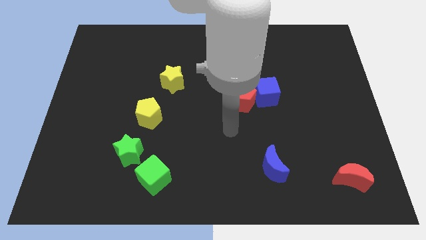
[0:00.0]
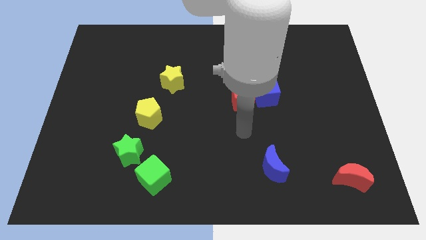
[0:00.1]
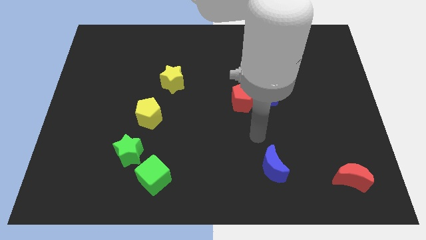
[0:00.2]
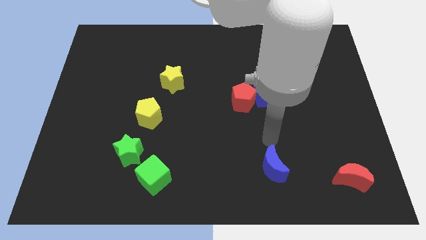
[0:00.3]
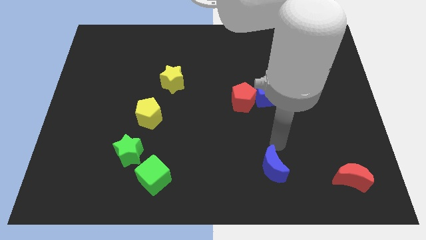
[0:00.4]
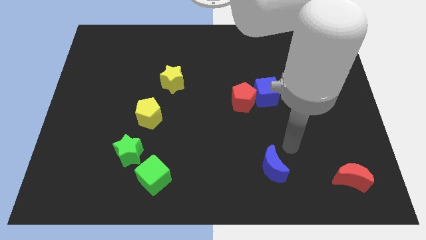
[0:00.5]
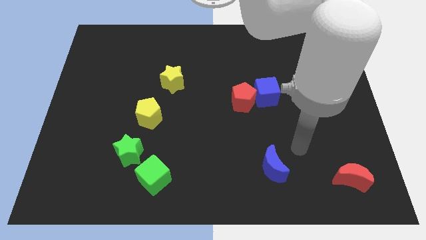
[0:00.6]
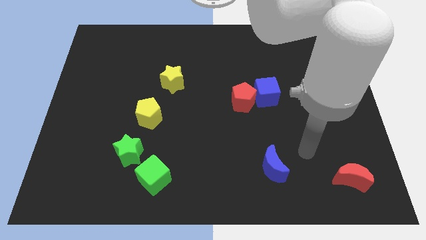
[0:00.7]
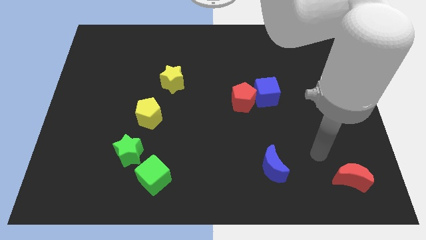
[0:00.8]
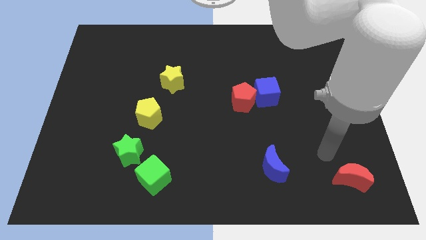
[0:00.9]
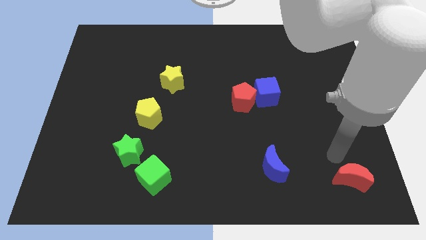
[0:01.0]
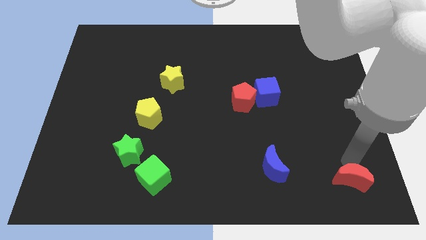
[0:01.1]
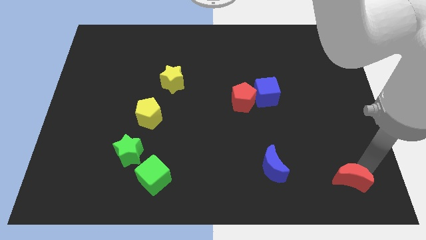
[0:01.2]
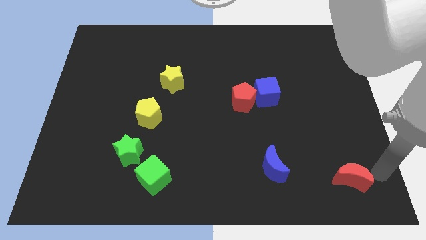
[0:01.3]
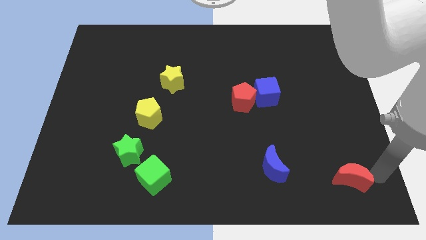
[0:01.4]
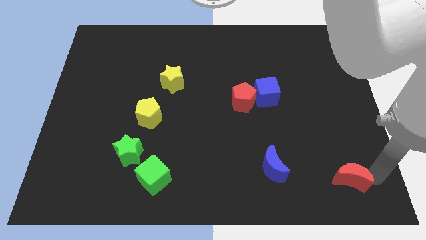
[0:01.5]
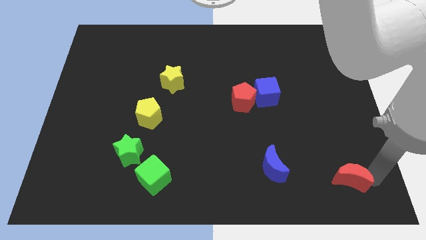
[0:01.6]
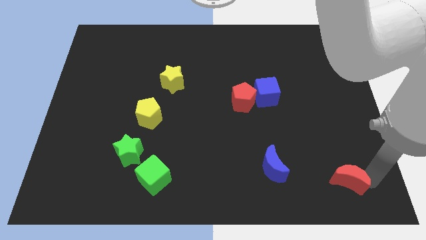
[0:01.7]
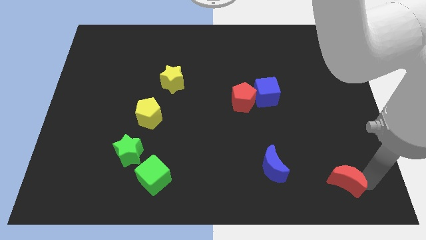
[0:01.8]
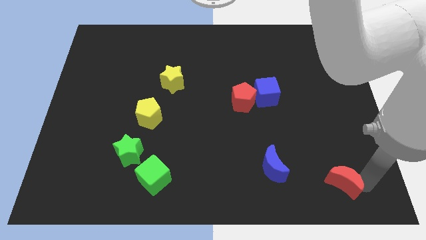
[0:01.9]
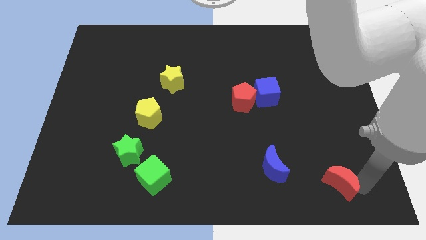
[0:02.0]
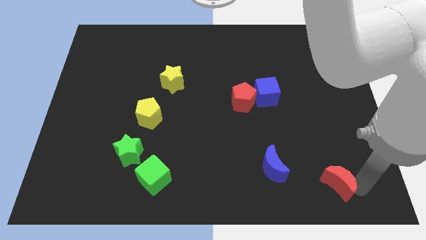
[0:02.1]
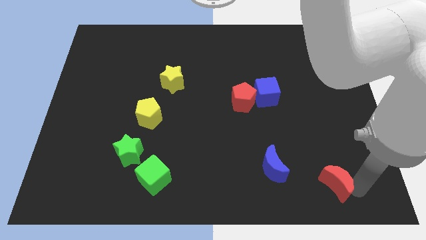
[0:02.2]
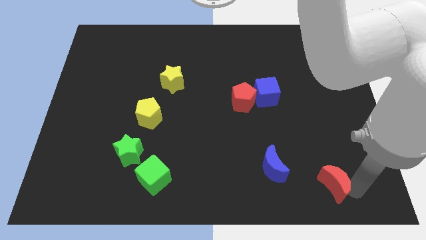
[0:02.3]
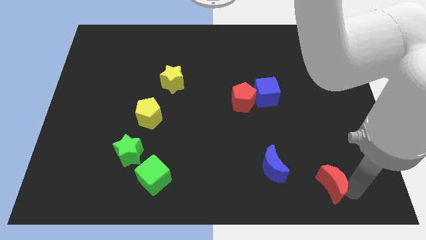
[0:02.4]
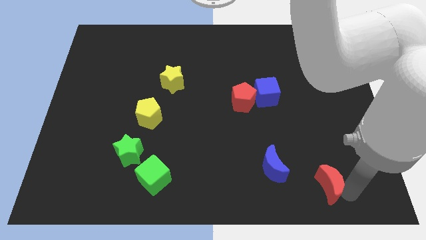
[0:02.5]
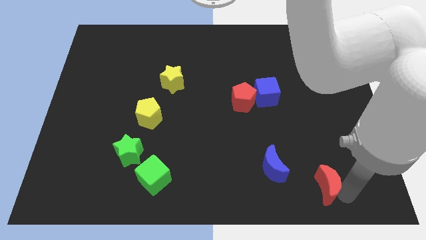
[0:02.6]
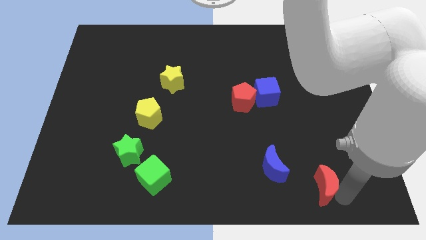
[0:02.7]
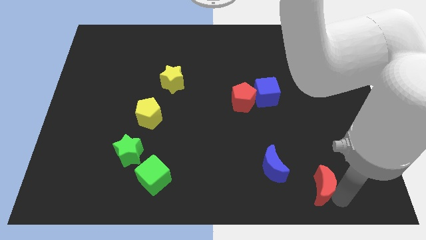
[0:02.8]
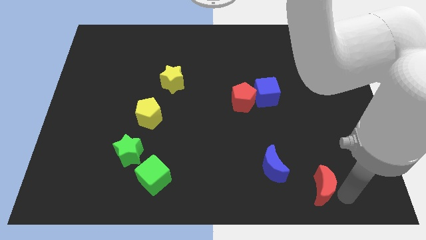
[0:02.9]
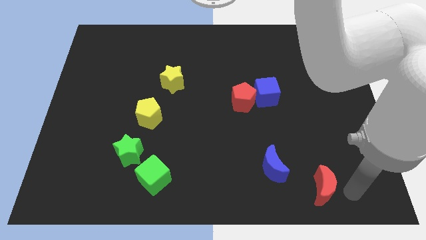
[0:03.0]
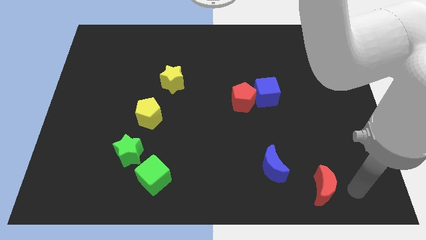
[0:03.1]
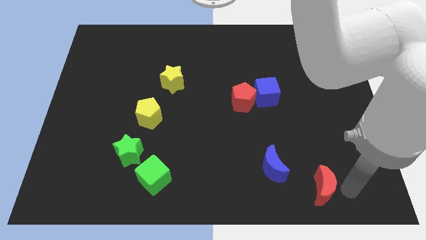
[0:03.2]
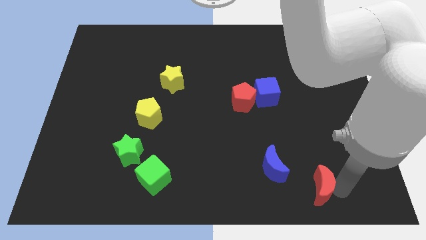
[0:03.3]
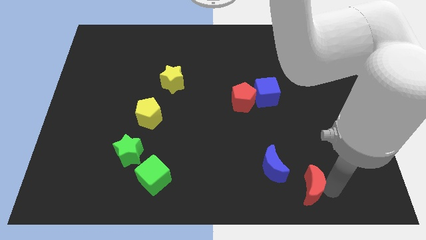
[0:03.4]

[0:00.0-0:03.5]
push the red moon left slightly

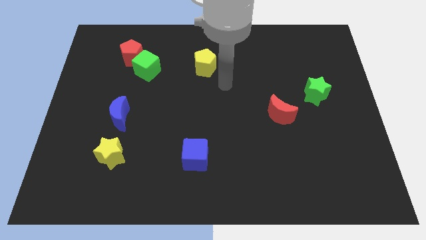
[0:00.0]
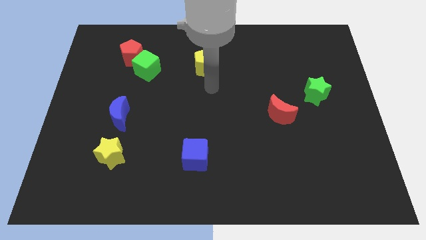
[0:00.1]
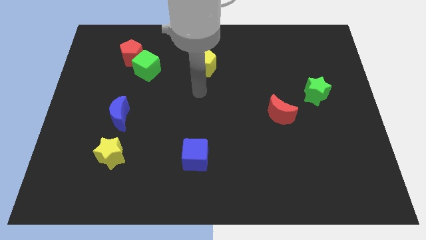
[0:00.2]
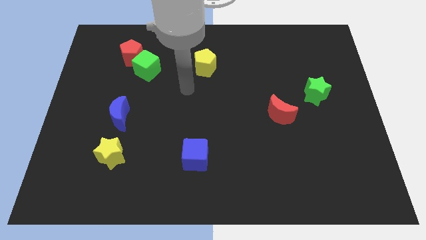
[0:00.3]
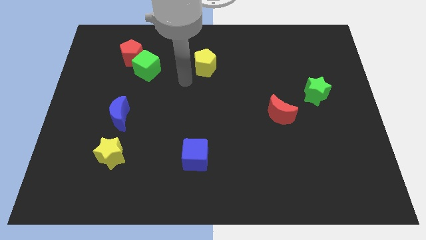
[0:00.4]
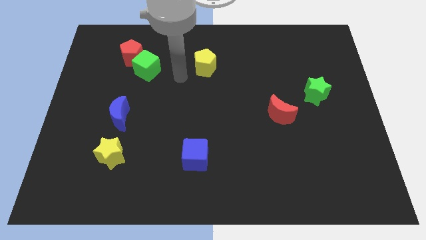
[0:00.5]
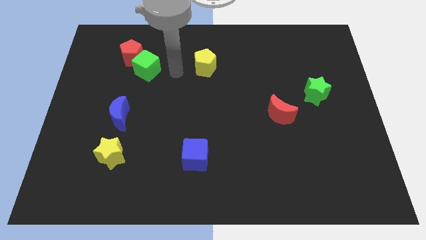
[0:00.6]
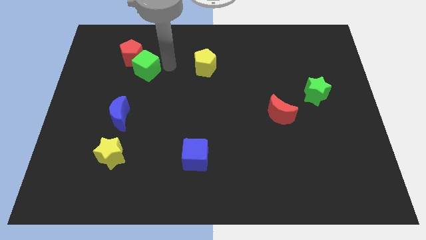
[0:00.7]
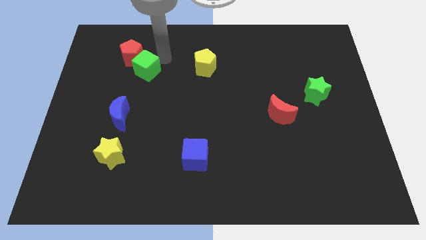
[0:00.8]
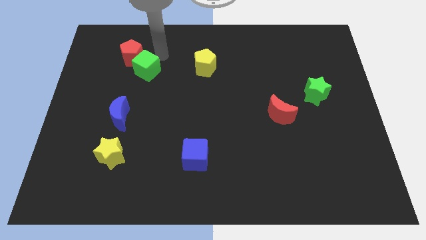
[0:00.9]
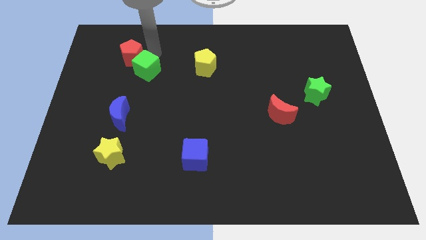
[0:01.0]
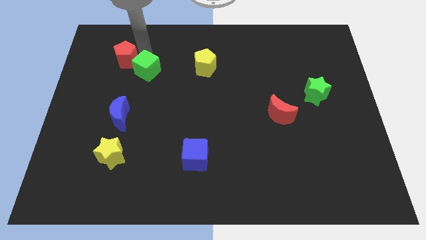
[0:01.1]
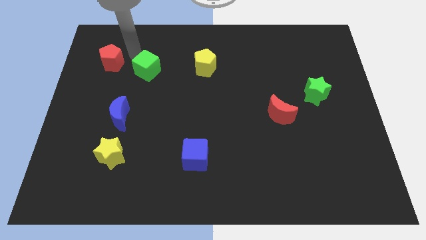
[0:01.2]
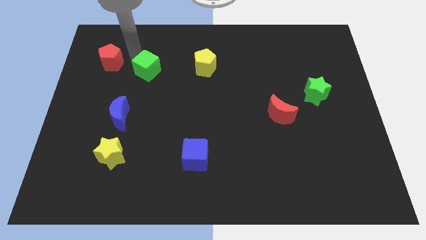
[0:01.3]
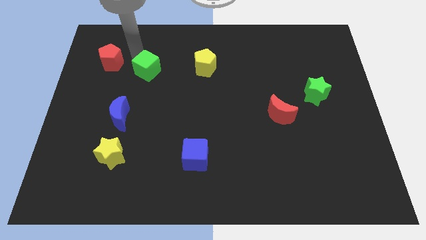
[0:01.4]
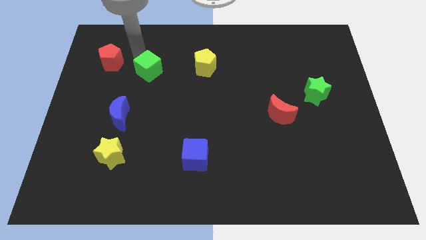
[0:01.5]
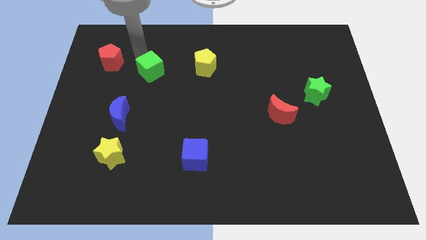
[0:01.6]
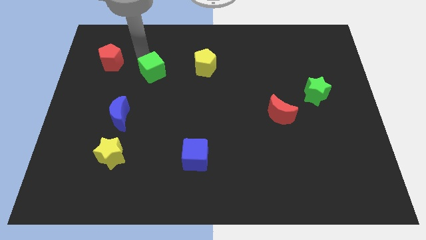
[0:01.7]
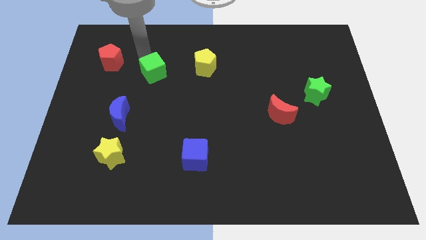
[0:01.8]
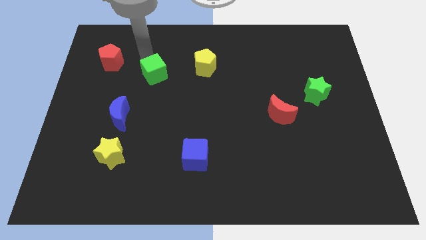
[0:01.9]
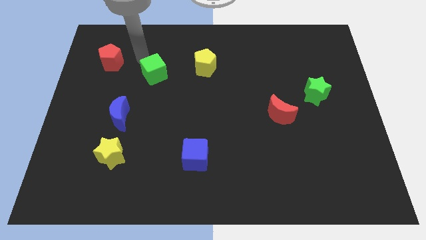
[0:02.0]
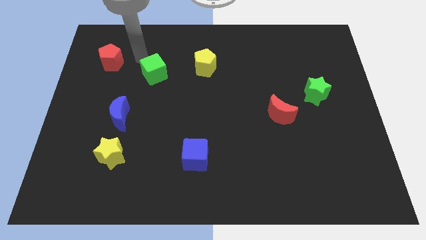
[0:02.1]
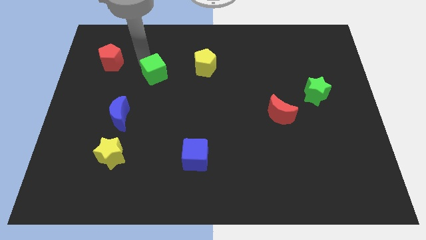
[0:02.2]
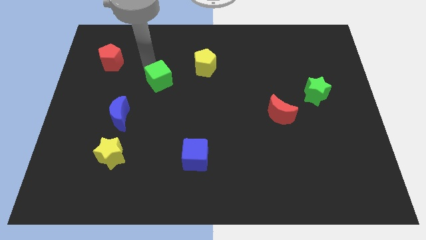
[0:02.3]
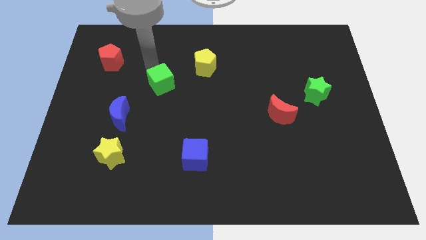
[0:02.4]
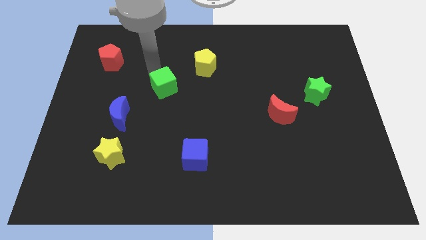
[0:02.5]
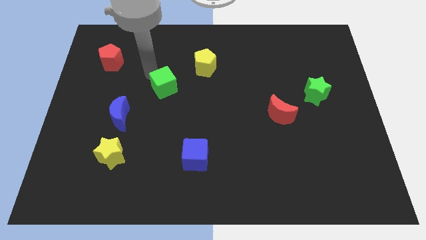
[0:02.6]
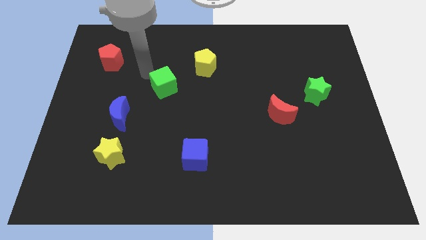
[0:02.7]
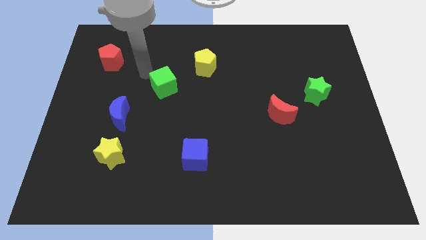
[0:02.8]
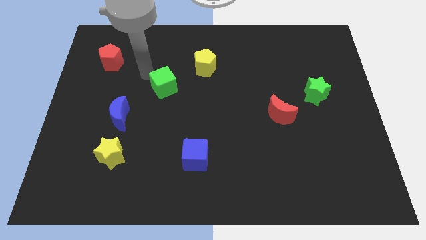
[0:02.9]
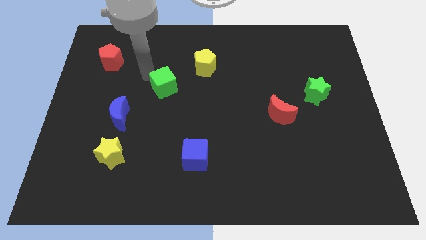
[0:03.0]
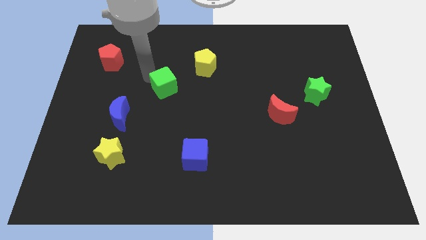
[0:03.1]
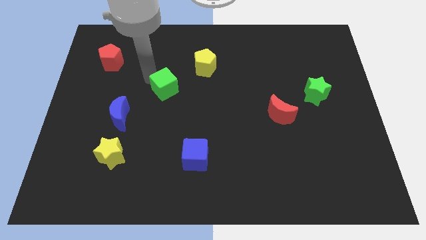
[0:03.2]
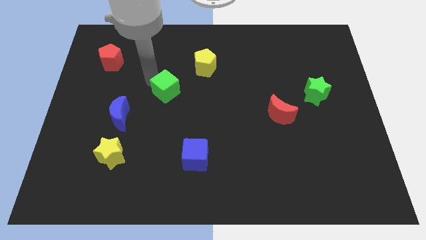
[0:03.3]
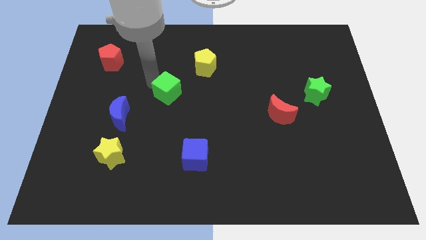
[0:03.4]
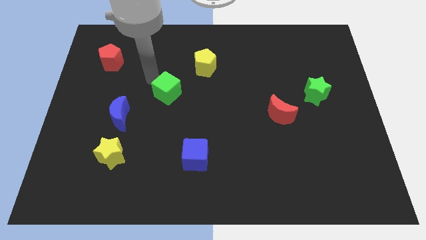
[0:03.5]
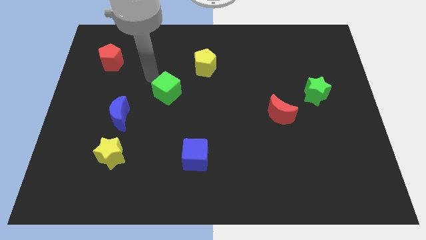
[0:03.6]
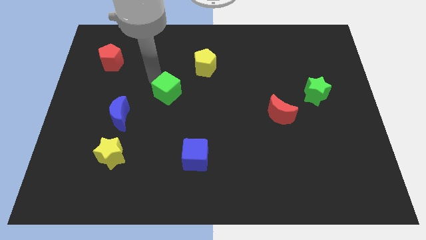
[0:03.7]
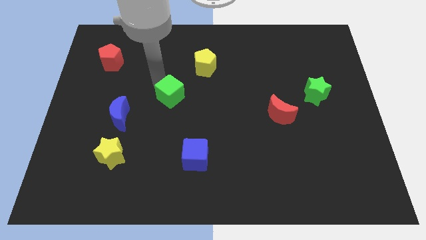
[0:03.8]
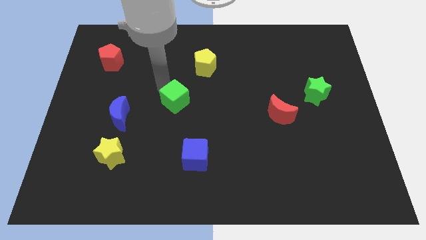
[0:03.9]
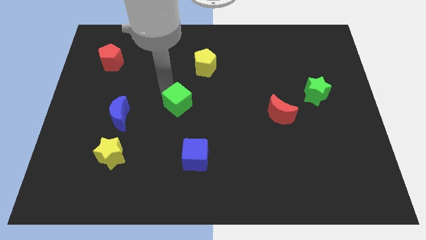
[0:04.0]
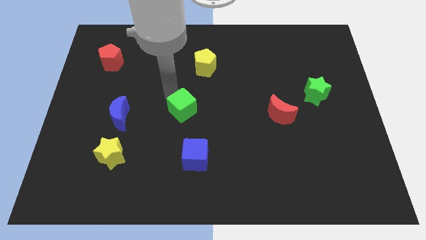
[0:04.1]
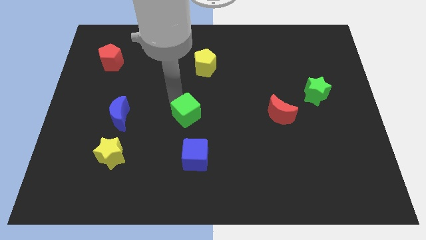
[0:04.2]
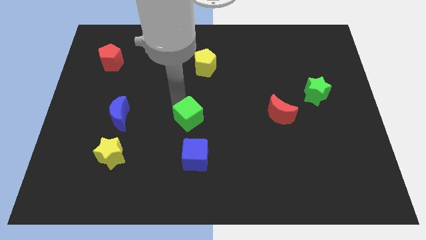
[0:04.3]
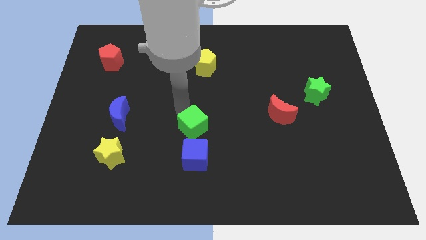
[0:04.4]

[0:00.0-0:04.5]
move the green cube downwards and right
